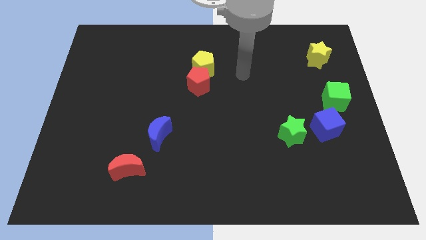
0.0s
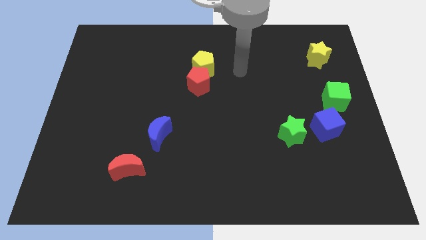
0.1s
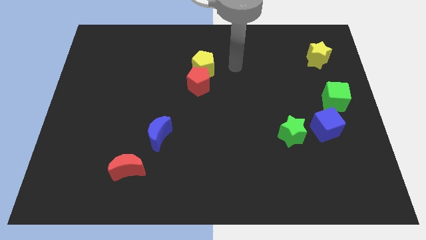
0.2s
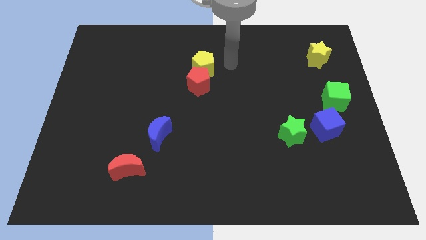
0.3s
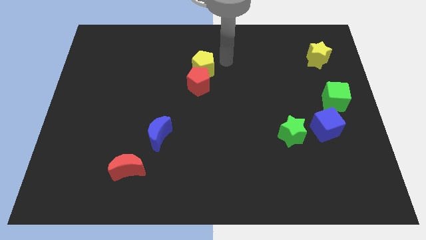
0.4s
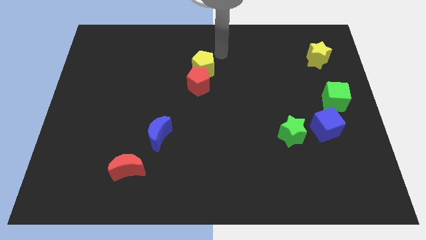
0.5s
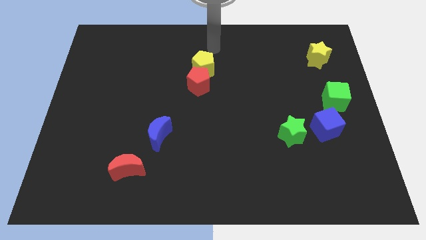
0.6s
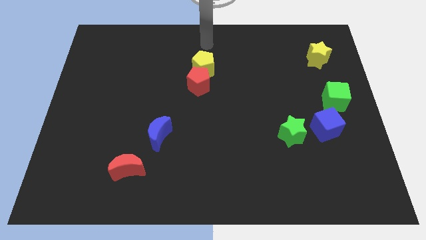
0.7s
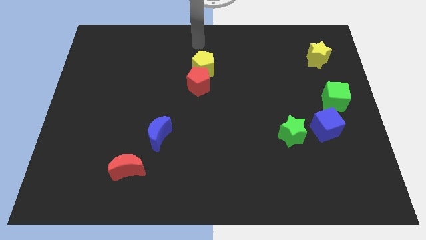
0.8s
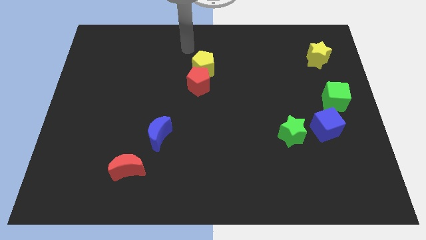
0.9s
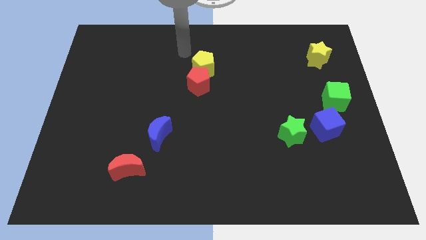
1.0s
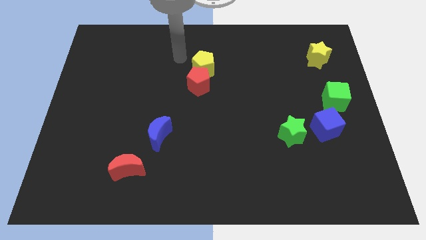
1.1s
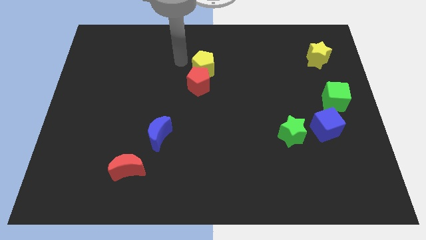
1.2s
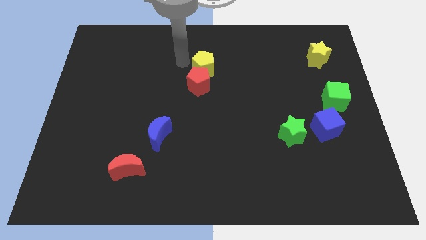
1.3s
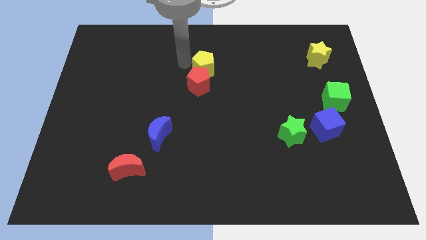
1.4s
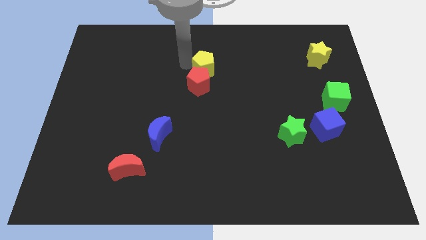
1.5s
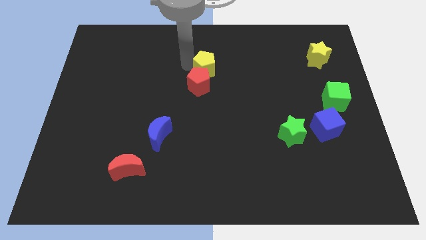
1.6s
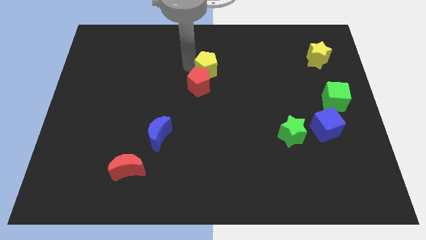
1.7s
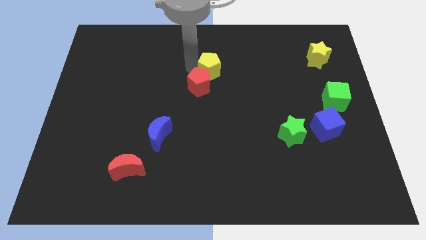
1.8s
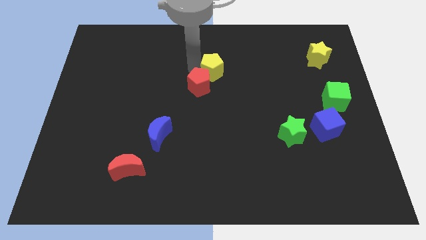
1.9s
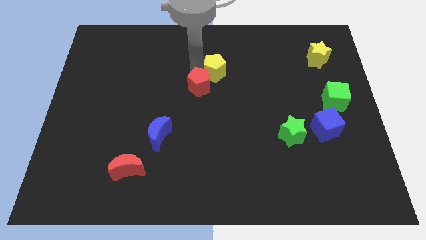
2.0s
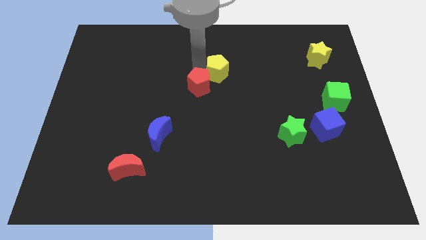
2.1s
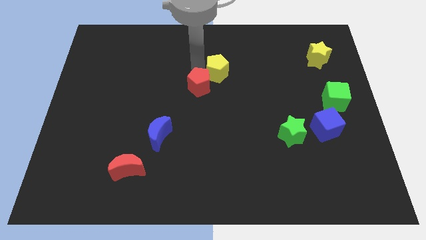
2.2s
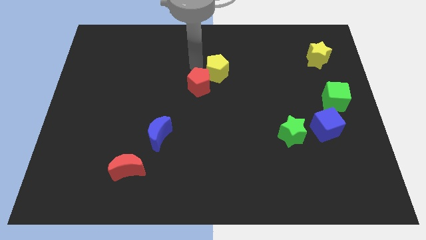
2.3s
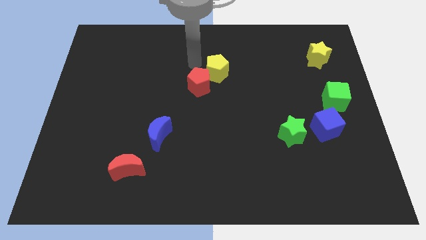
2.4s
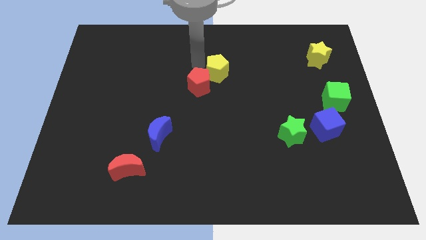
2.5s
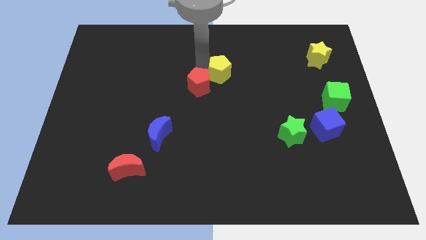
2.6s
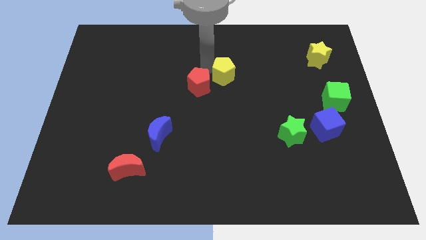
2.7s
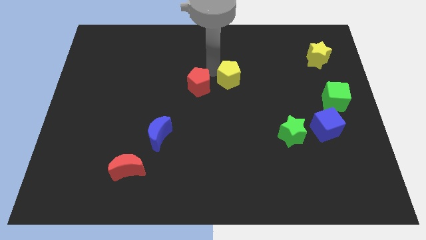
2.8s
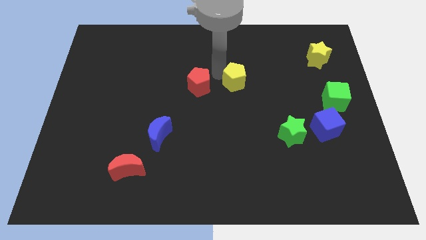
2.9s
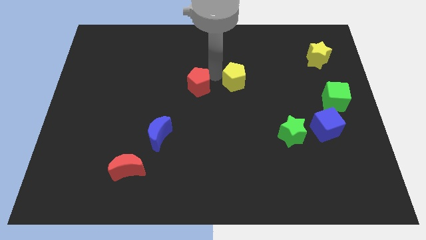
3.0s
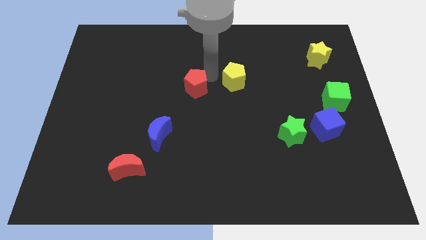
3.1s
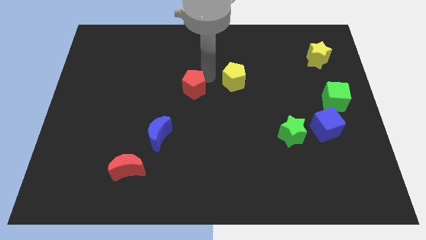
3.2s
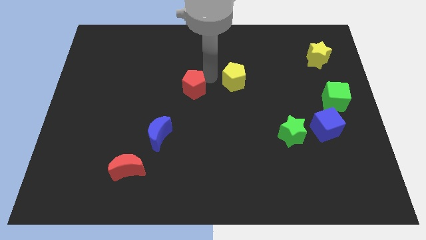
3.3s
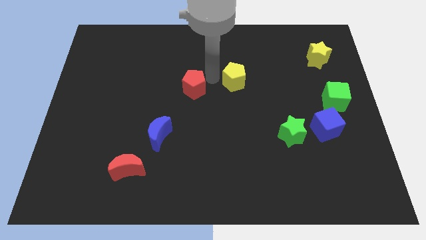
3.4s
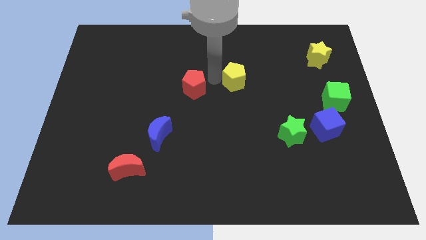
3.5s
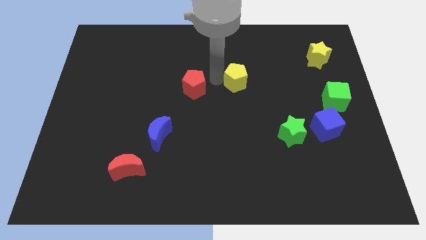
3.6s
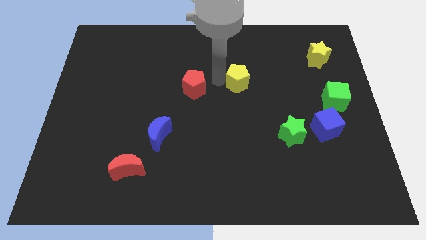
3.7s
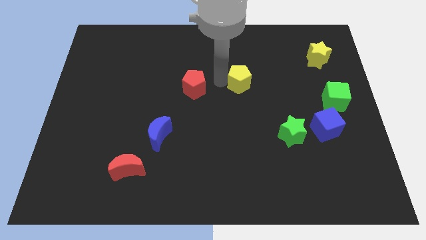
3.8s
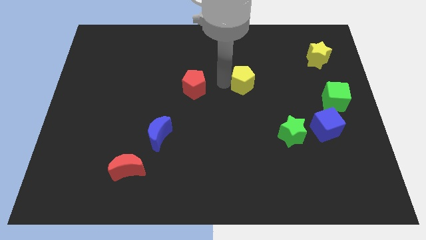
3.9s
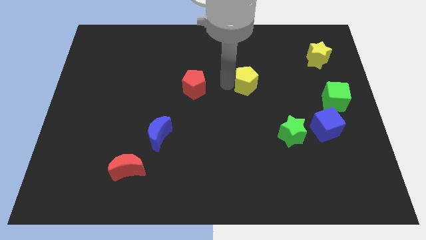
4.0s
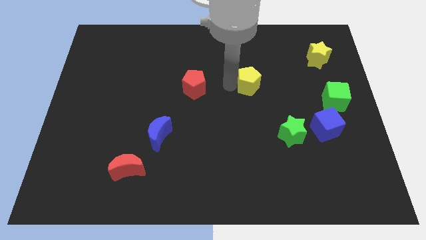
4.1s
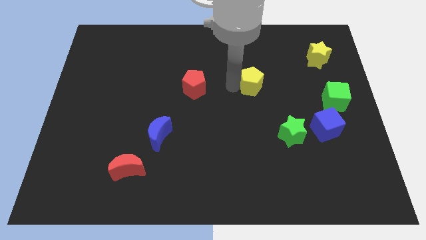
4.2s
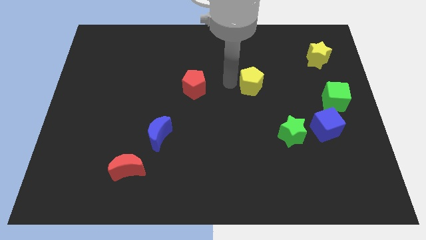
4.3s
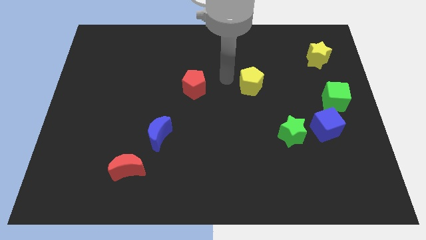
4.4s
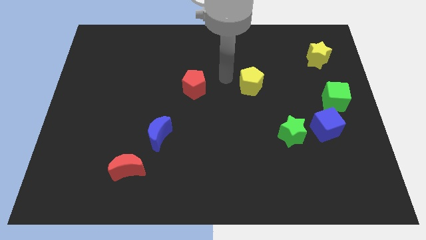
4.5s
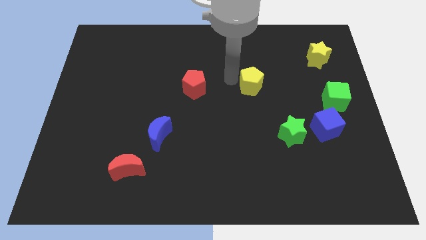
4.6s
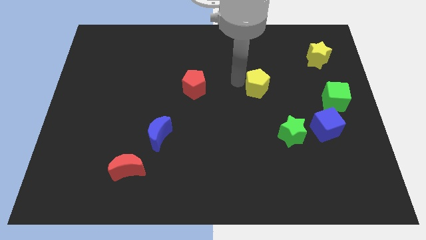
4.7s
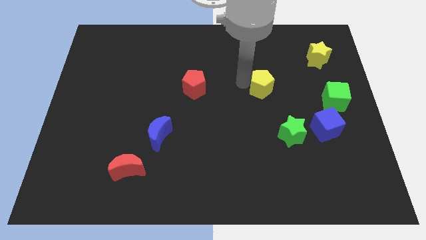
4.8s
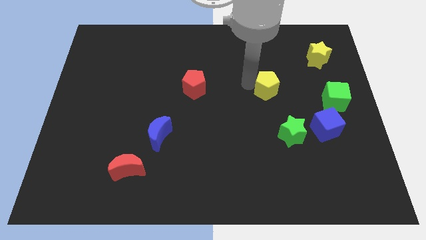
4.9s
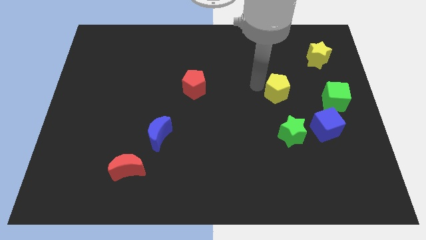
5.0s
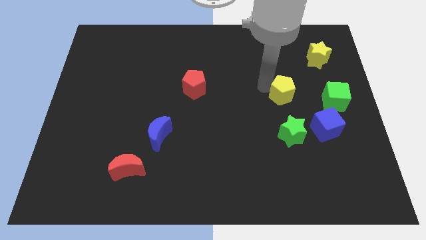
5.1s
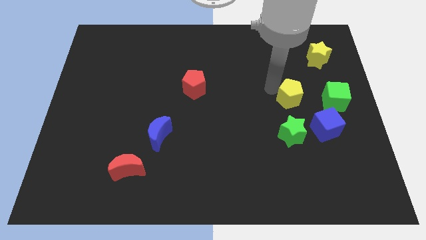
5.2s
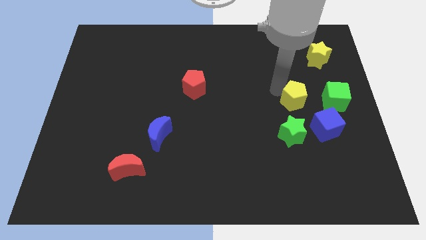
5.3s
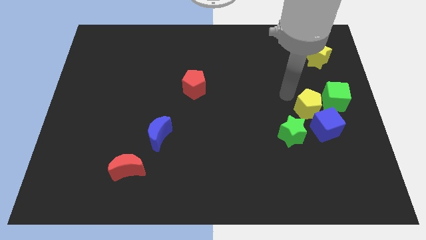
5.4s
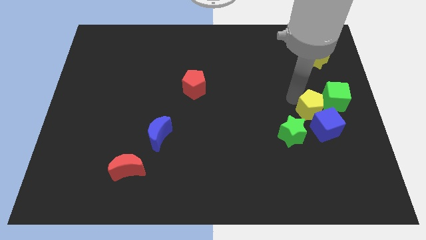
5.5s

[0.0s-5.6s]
push the yellow pentagon to the blue cube

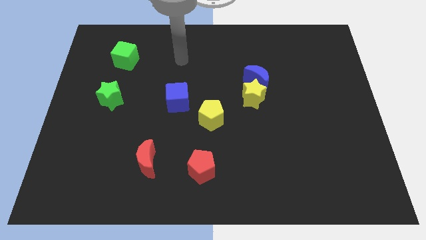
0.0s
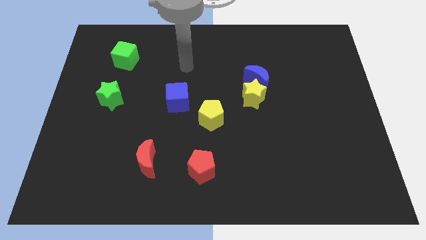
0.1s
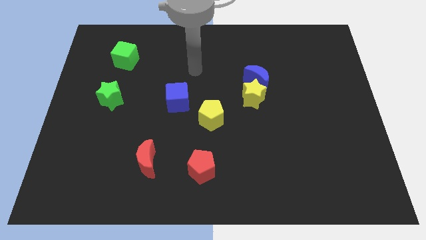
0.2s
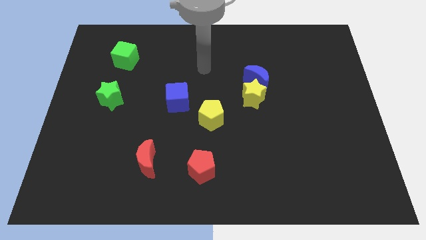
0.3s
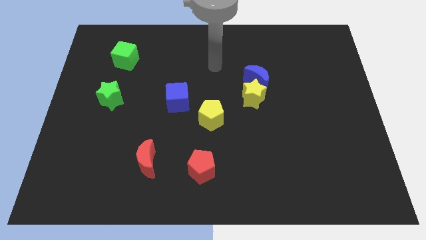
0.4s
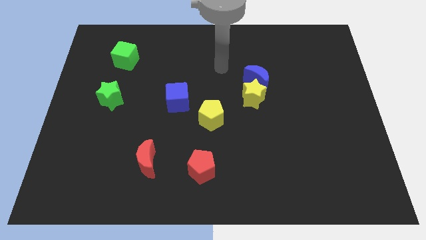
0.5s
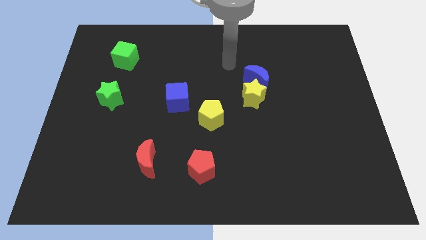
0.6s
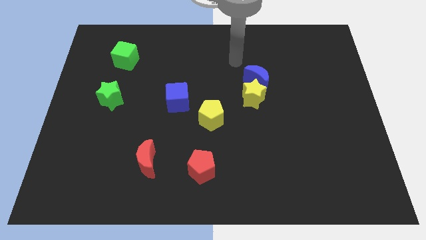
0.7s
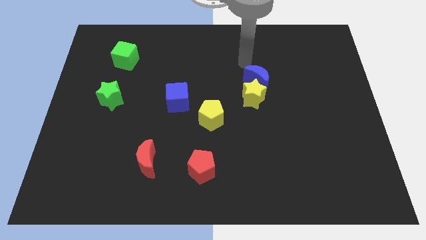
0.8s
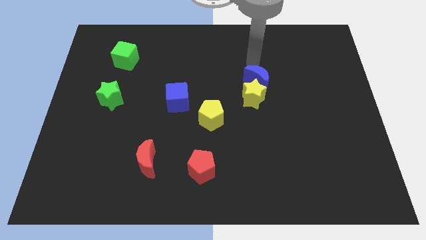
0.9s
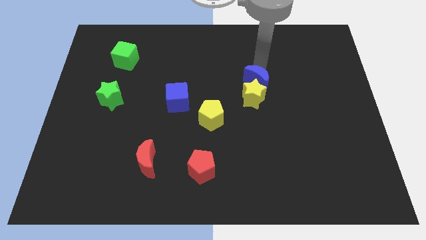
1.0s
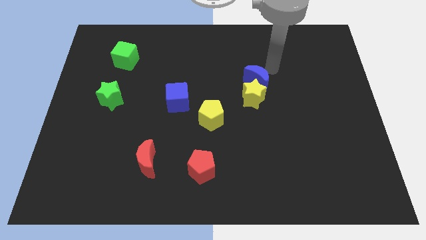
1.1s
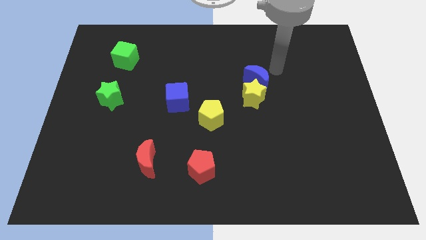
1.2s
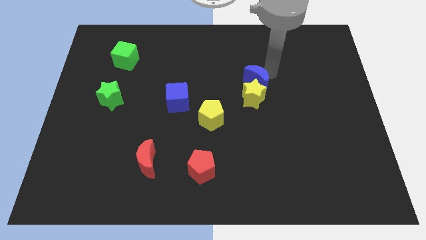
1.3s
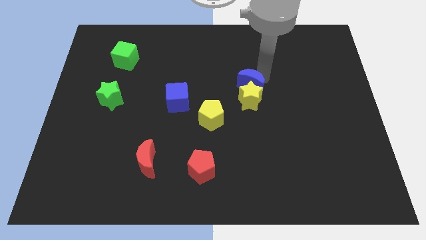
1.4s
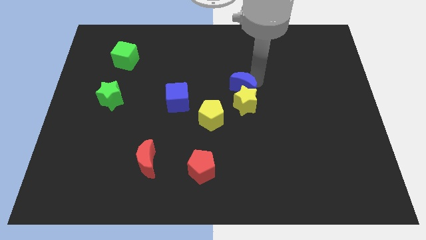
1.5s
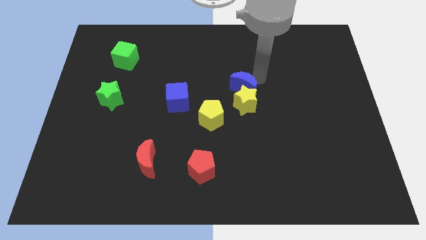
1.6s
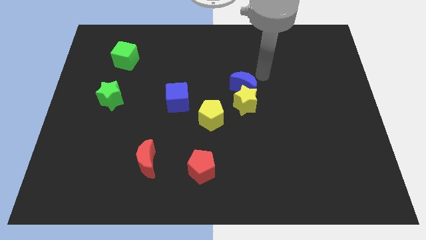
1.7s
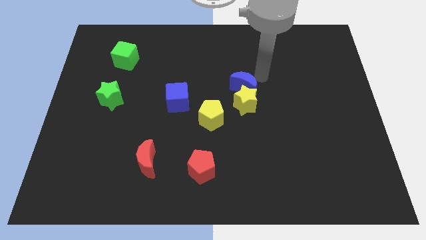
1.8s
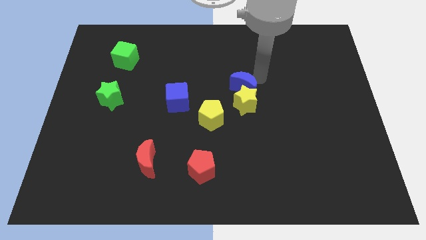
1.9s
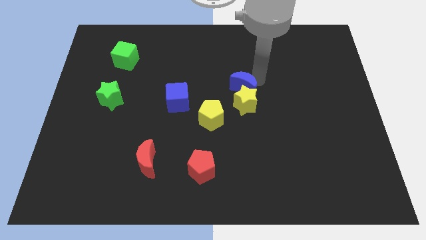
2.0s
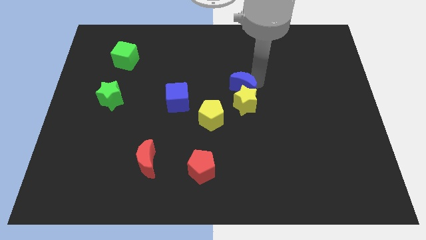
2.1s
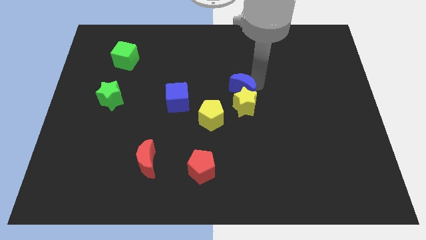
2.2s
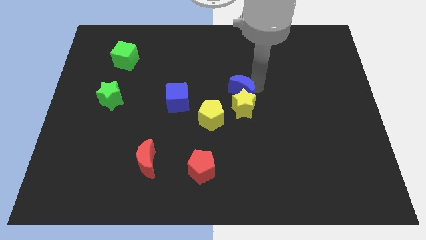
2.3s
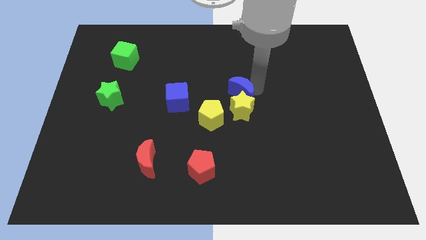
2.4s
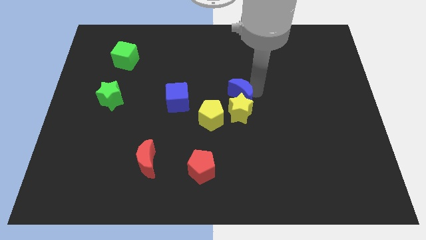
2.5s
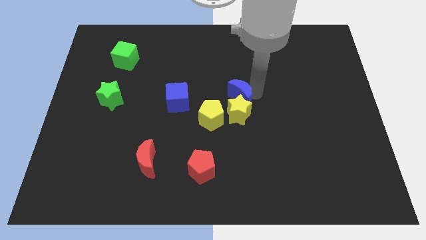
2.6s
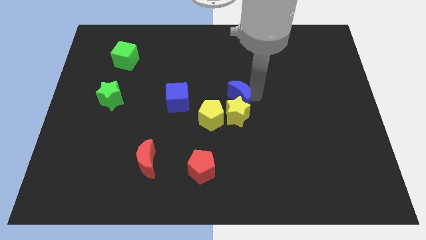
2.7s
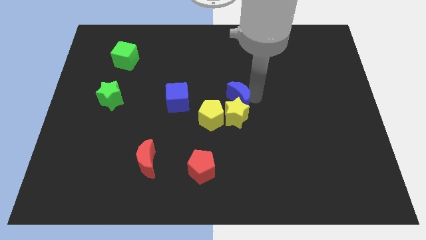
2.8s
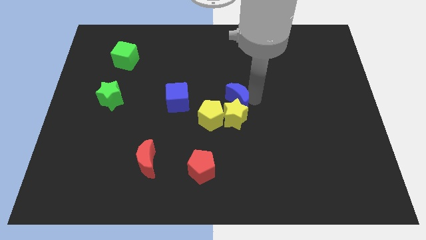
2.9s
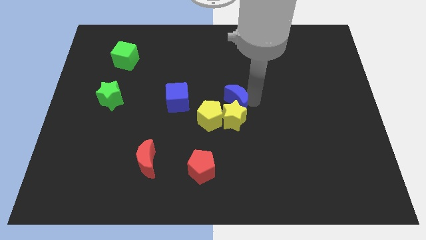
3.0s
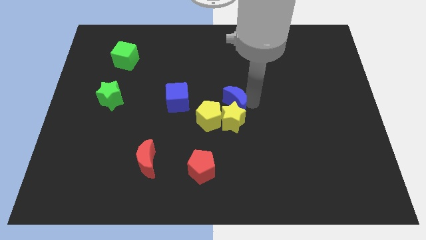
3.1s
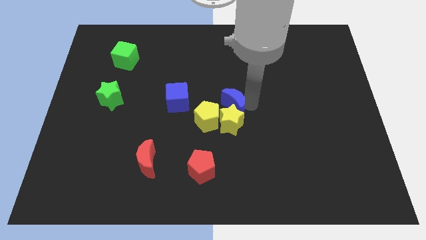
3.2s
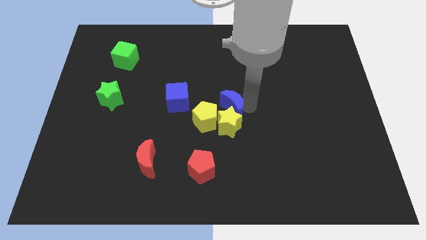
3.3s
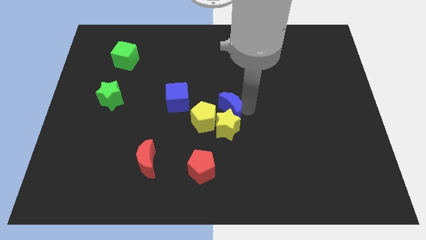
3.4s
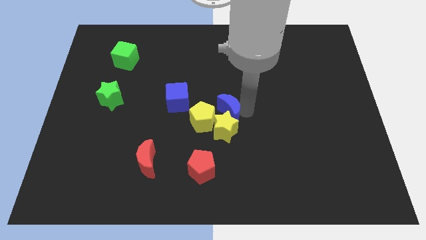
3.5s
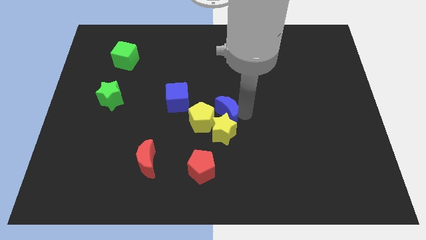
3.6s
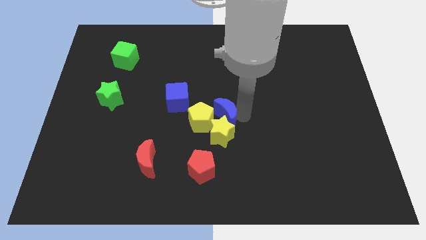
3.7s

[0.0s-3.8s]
slide the blue moon close to the yellow pentagon
